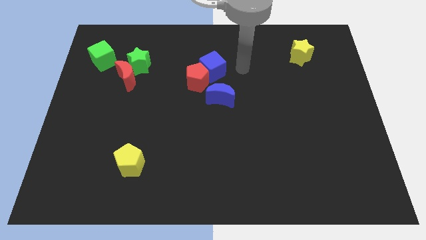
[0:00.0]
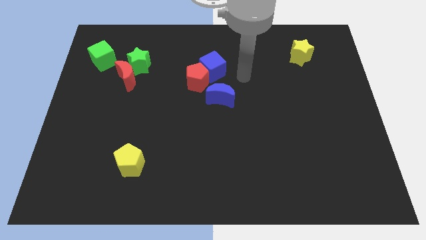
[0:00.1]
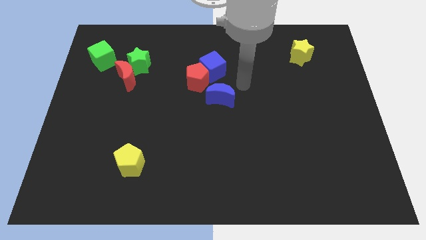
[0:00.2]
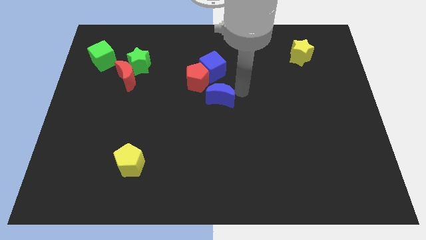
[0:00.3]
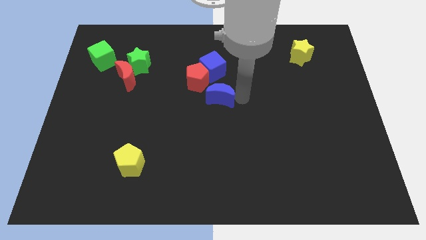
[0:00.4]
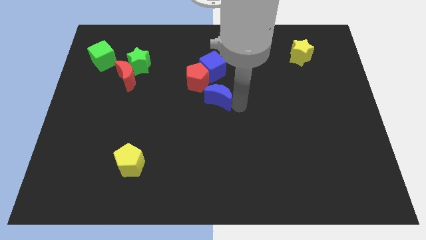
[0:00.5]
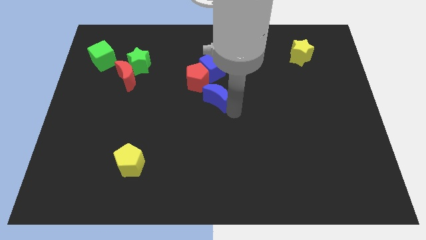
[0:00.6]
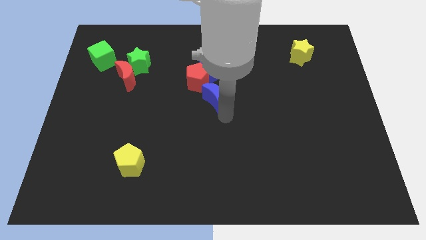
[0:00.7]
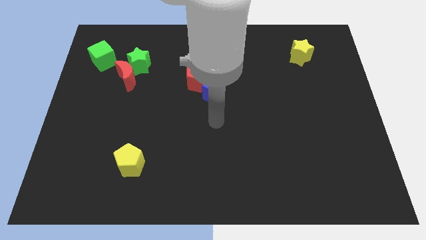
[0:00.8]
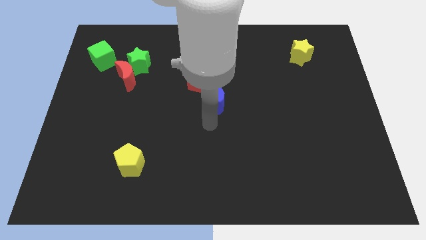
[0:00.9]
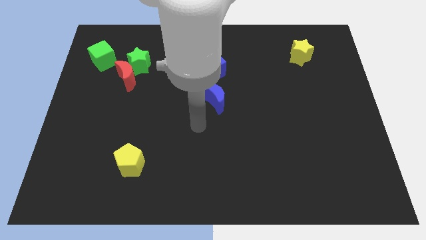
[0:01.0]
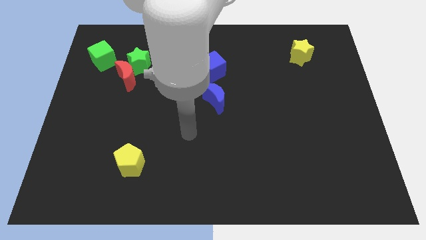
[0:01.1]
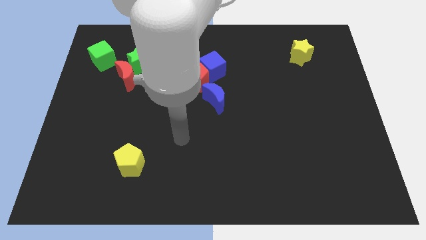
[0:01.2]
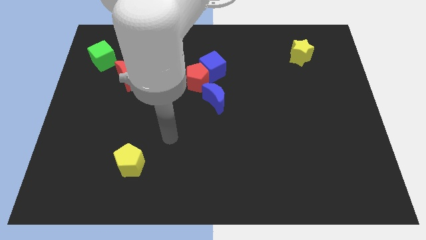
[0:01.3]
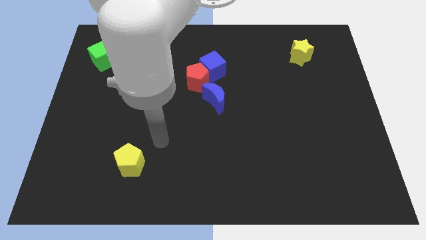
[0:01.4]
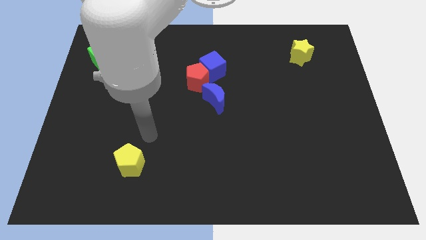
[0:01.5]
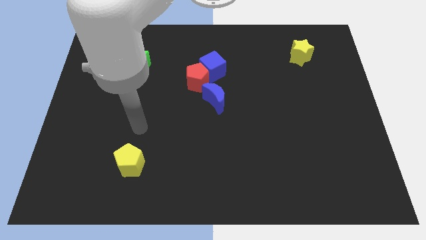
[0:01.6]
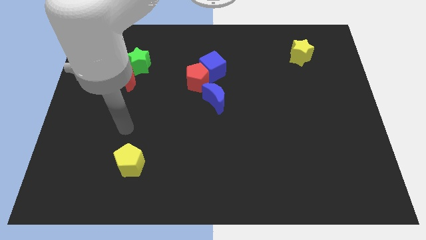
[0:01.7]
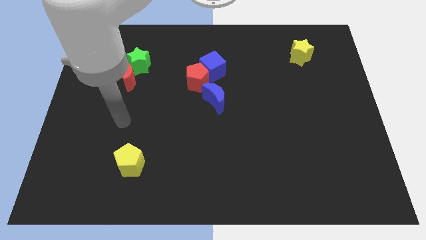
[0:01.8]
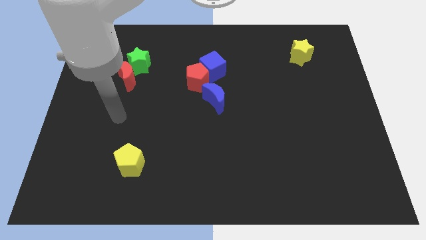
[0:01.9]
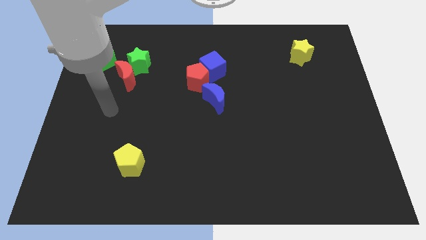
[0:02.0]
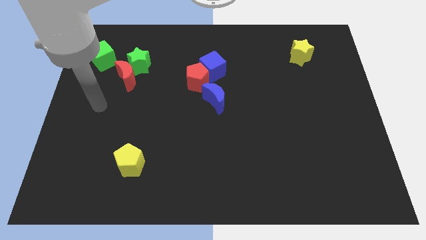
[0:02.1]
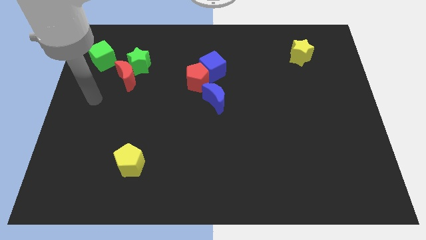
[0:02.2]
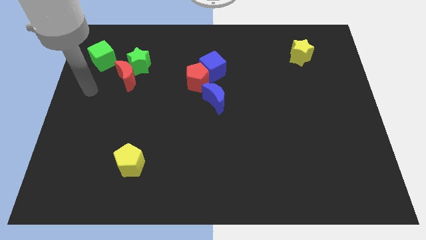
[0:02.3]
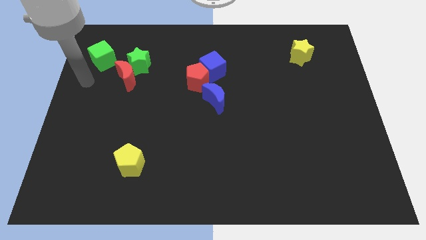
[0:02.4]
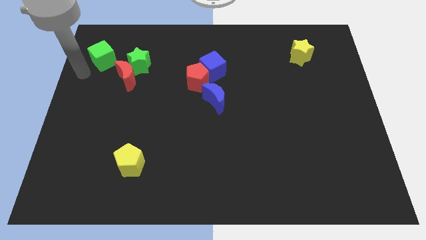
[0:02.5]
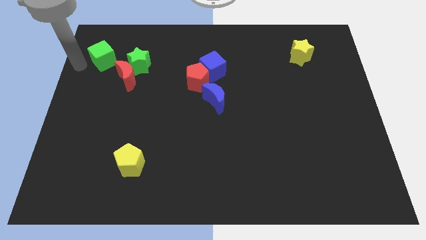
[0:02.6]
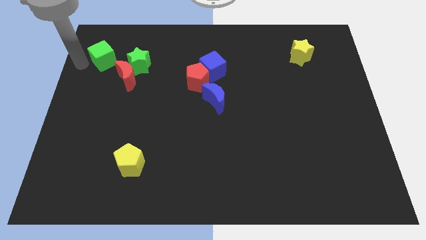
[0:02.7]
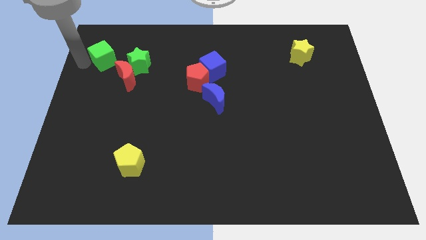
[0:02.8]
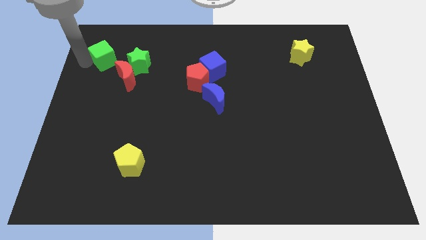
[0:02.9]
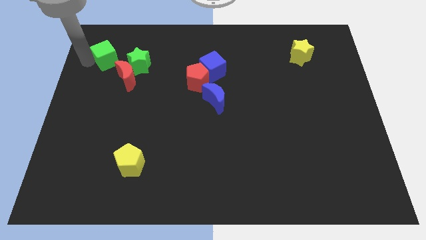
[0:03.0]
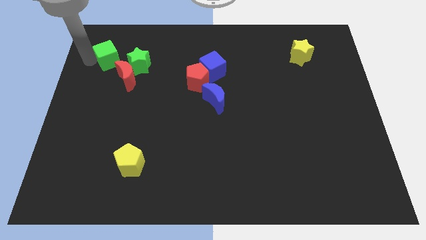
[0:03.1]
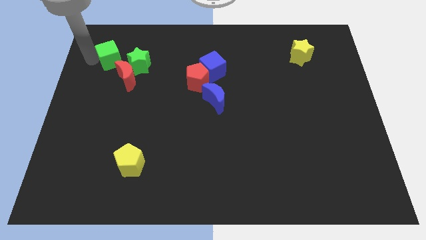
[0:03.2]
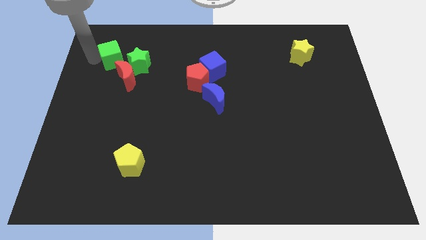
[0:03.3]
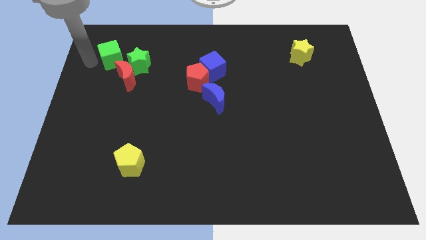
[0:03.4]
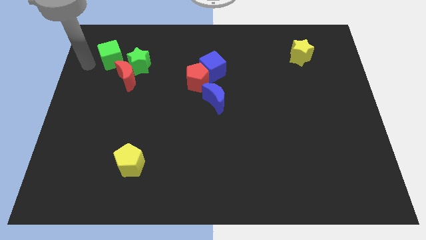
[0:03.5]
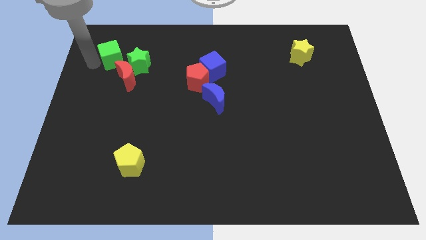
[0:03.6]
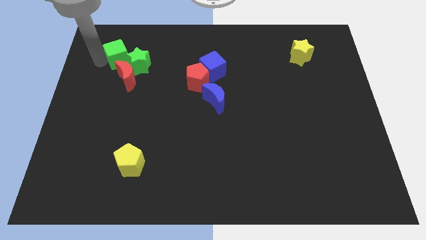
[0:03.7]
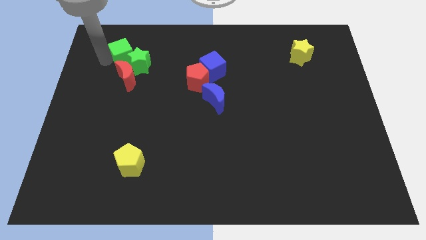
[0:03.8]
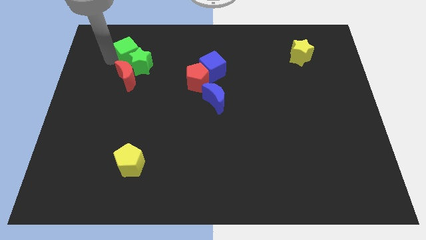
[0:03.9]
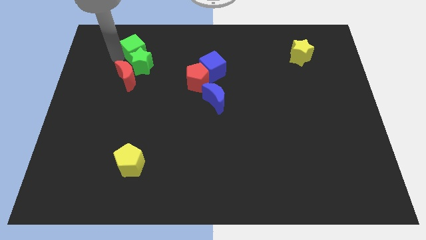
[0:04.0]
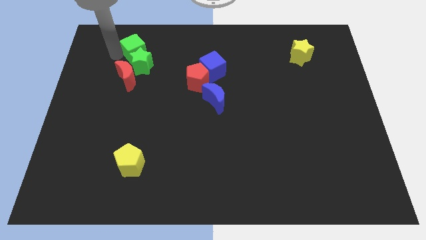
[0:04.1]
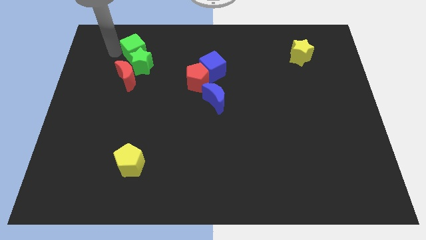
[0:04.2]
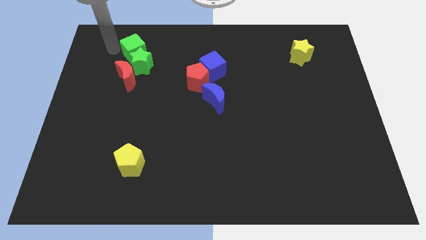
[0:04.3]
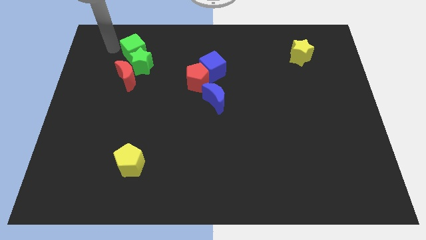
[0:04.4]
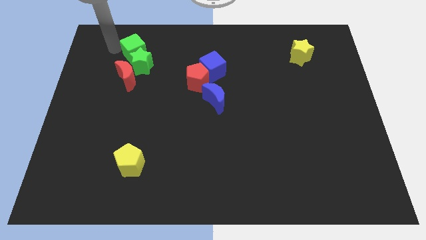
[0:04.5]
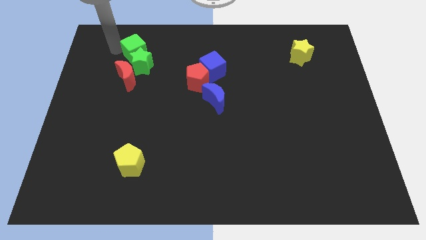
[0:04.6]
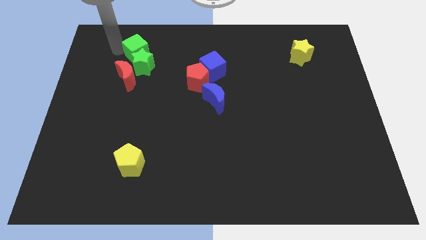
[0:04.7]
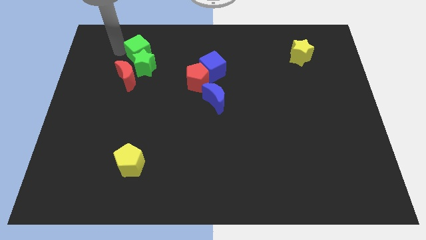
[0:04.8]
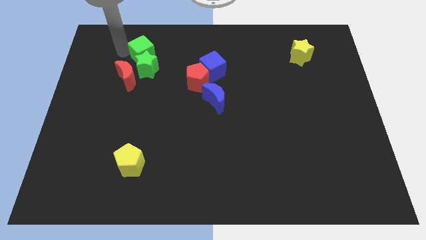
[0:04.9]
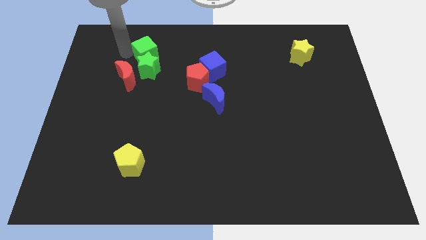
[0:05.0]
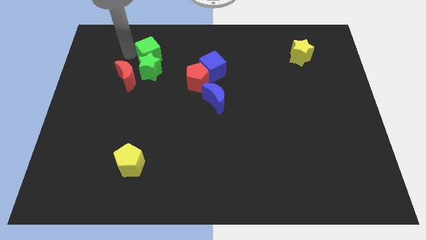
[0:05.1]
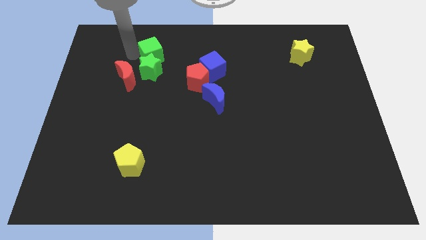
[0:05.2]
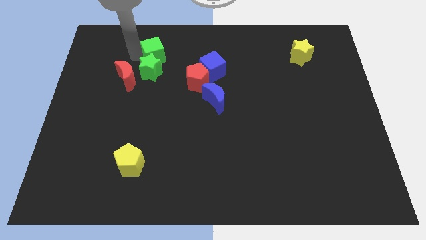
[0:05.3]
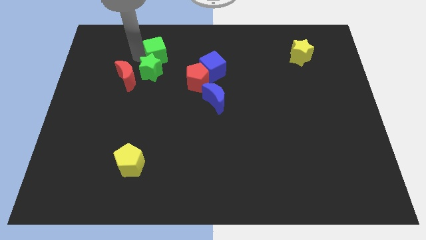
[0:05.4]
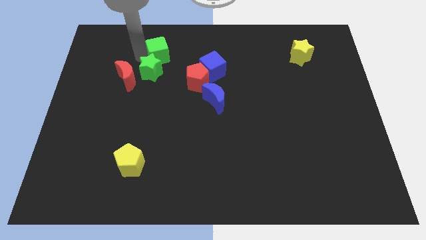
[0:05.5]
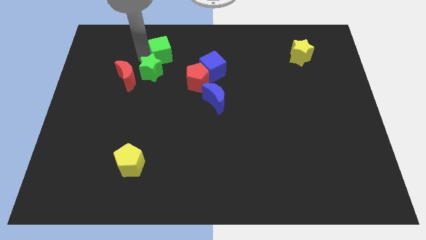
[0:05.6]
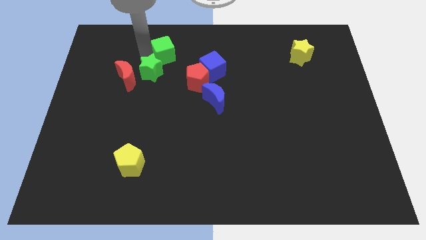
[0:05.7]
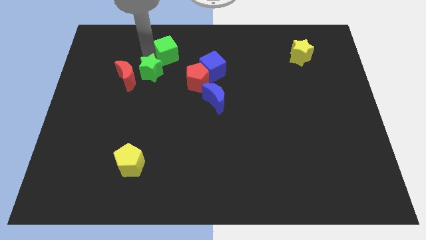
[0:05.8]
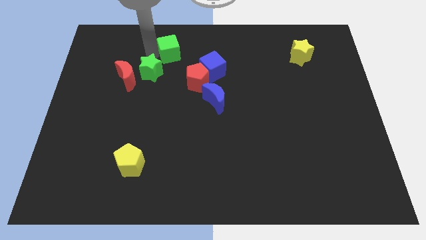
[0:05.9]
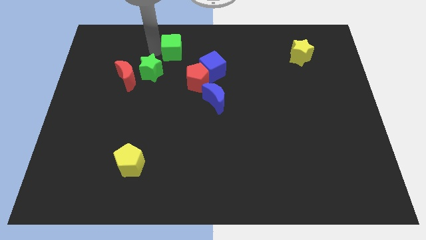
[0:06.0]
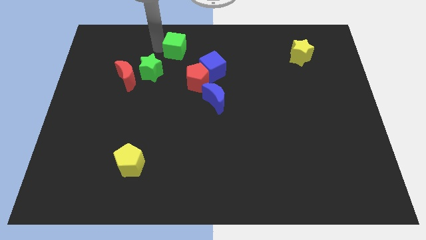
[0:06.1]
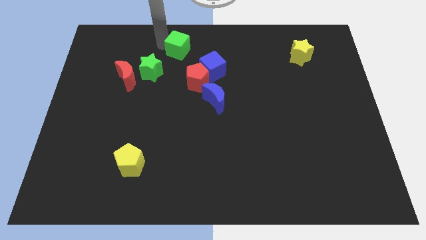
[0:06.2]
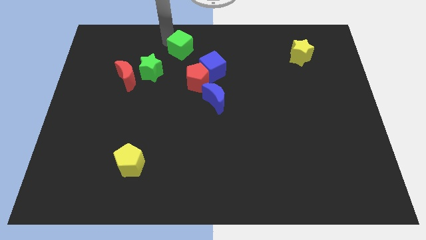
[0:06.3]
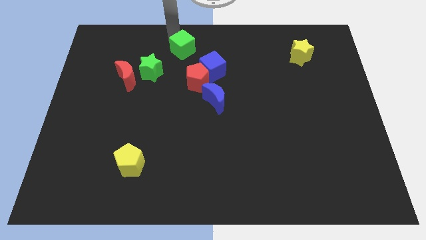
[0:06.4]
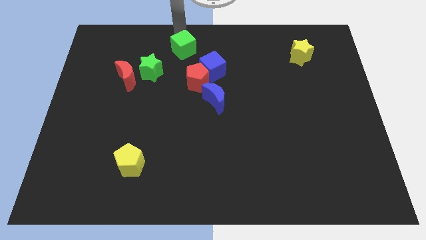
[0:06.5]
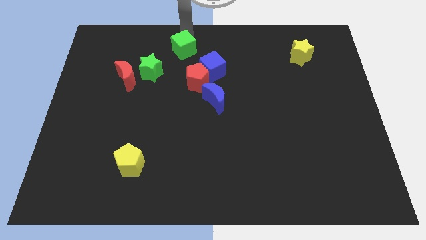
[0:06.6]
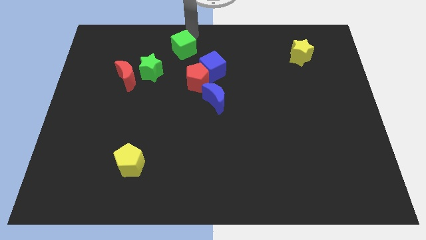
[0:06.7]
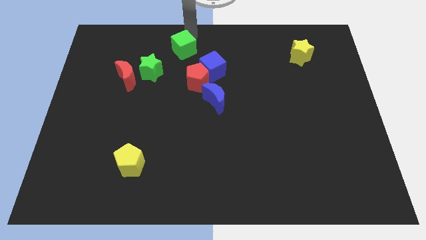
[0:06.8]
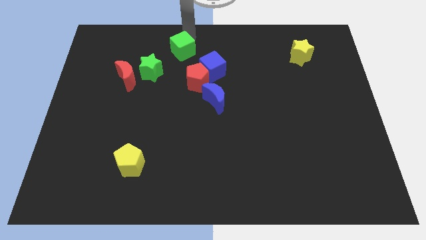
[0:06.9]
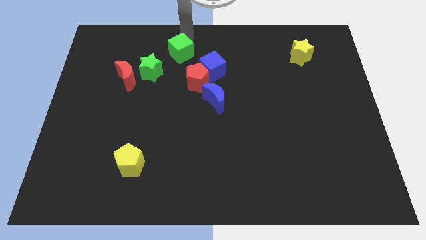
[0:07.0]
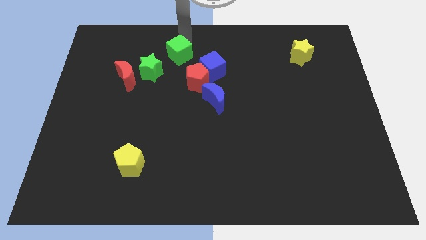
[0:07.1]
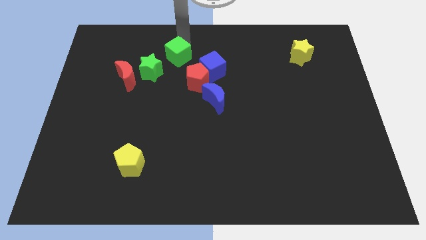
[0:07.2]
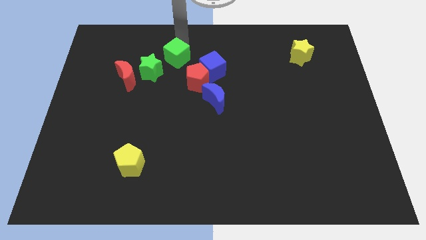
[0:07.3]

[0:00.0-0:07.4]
slide the green cube just left of the blue cube

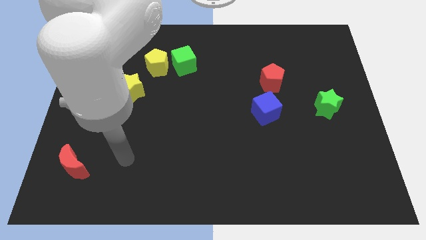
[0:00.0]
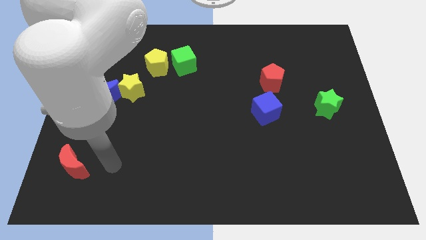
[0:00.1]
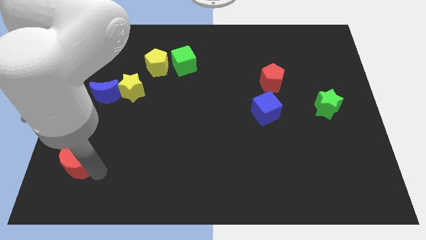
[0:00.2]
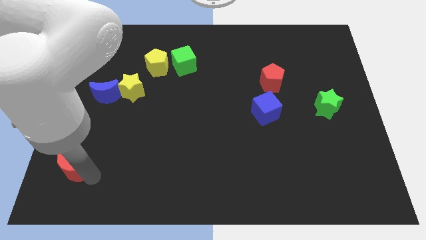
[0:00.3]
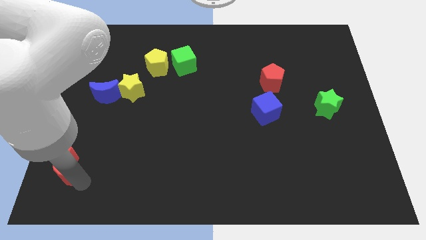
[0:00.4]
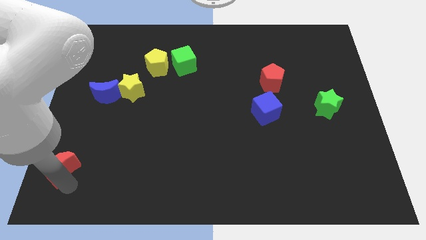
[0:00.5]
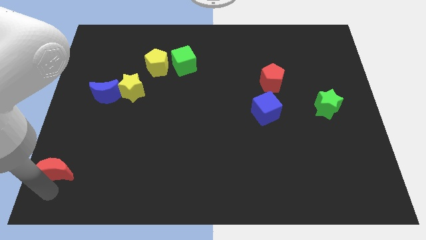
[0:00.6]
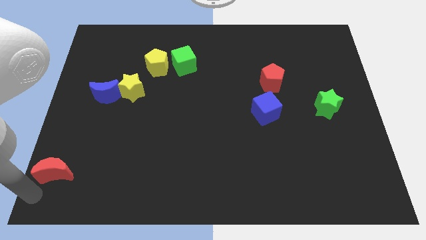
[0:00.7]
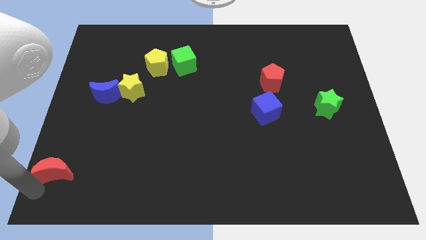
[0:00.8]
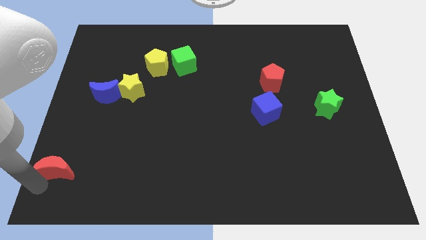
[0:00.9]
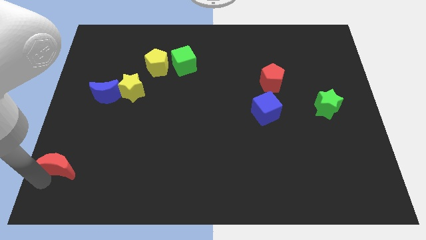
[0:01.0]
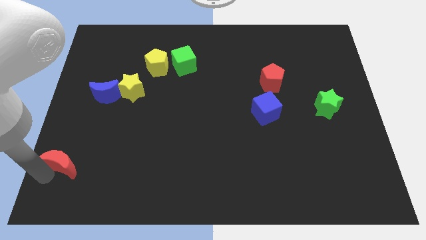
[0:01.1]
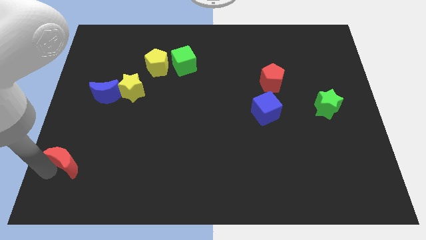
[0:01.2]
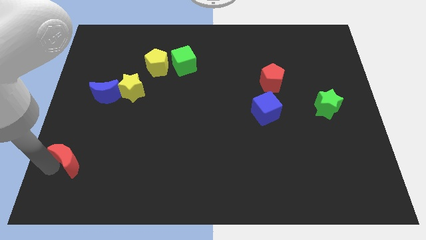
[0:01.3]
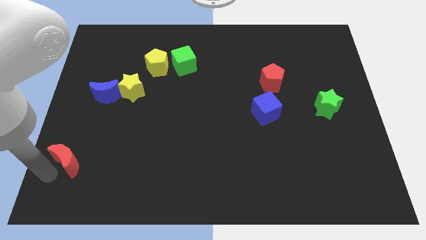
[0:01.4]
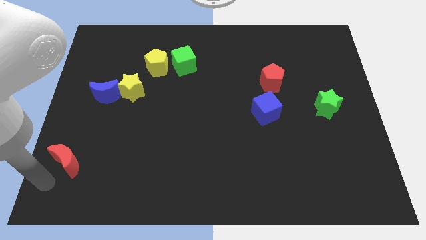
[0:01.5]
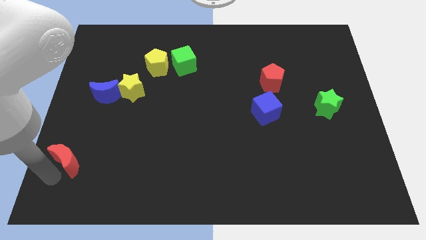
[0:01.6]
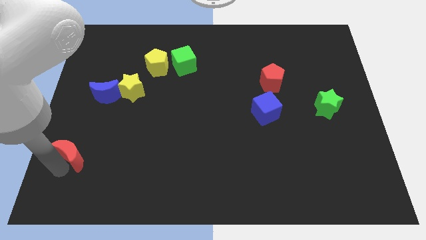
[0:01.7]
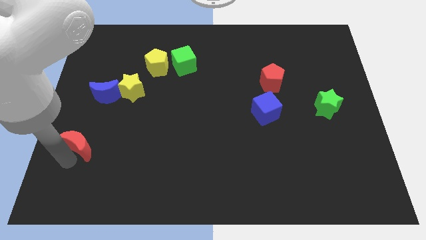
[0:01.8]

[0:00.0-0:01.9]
move the red moon to the bottom side of the blue moon
